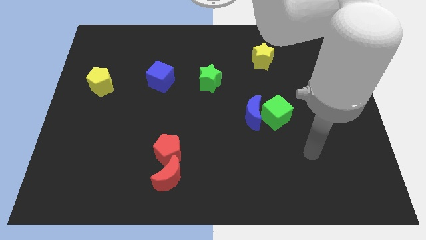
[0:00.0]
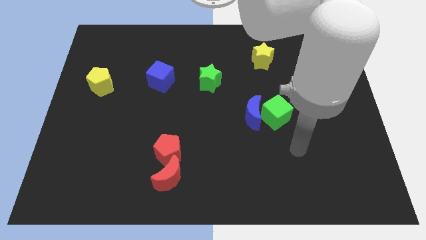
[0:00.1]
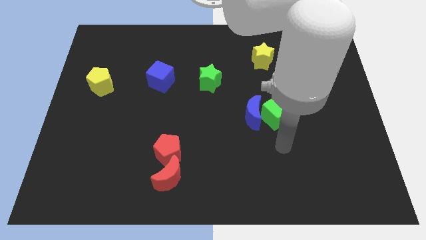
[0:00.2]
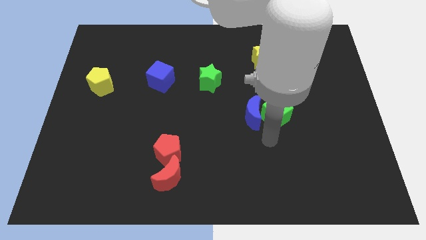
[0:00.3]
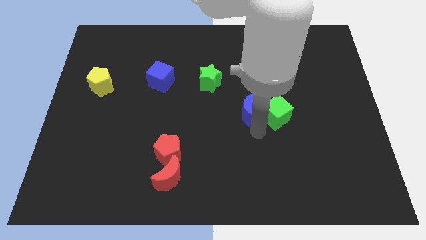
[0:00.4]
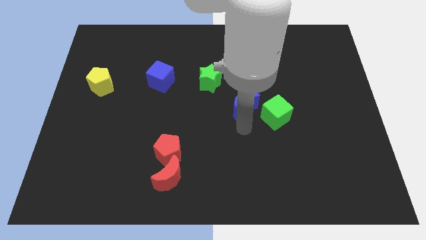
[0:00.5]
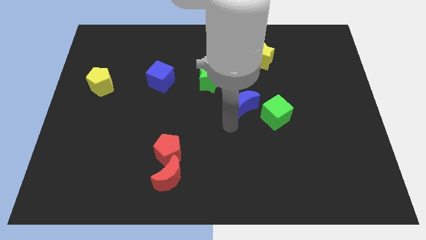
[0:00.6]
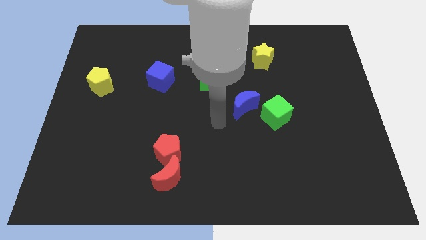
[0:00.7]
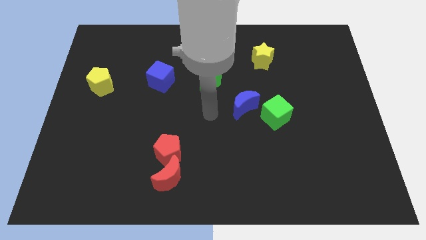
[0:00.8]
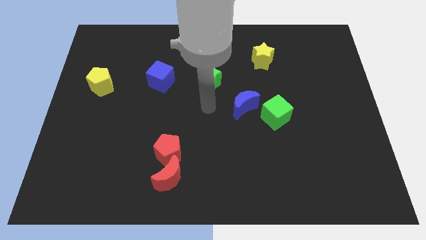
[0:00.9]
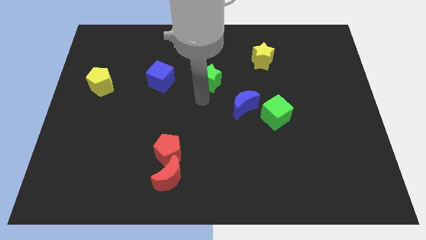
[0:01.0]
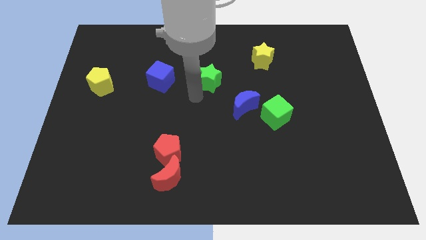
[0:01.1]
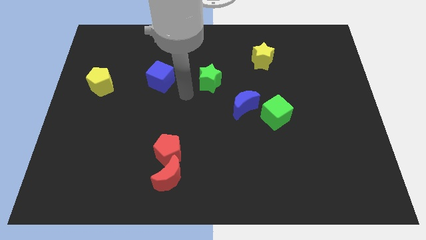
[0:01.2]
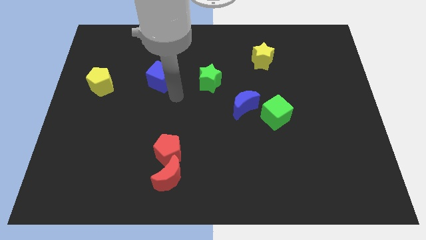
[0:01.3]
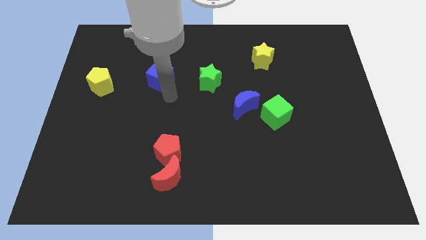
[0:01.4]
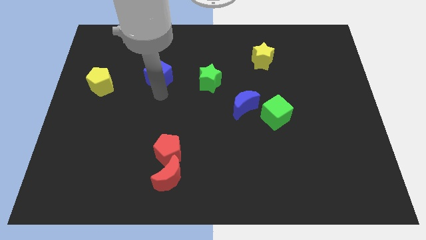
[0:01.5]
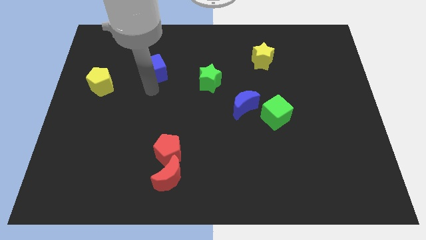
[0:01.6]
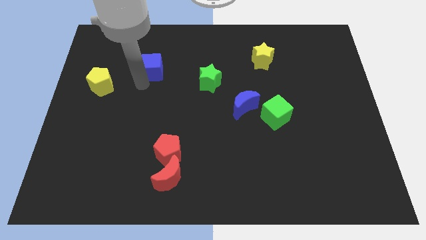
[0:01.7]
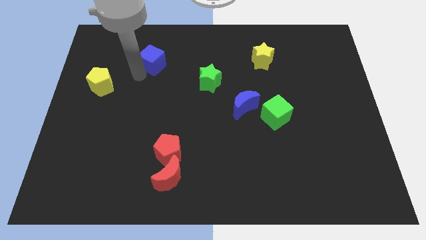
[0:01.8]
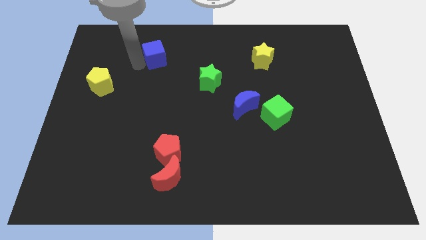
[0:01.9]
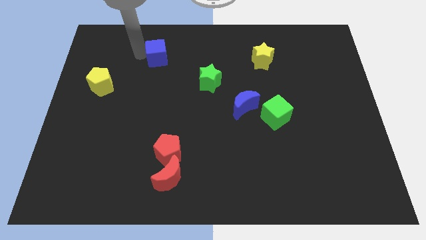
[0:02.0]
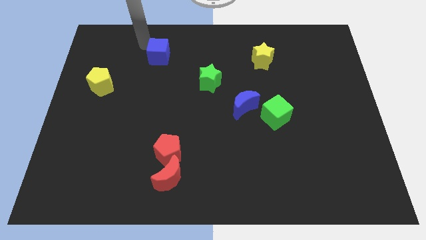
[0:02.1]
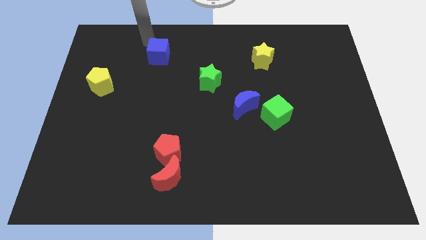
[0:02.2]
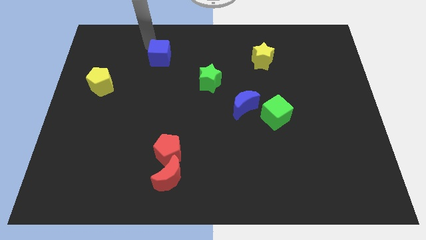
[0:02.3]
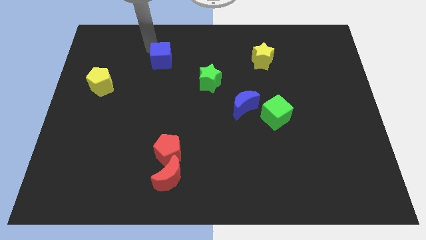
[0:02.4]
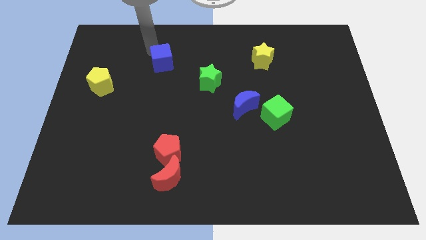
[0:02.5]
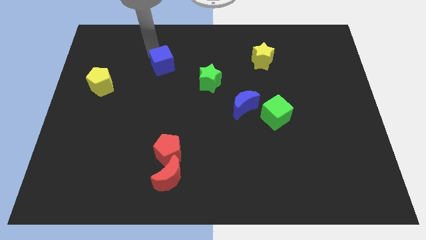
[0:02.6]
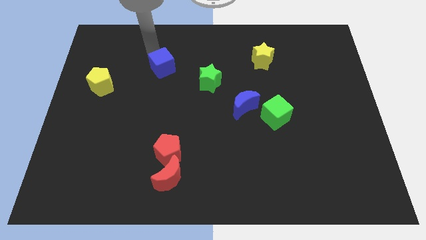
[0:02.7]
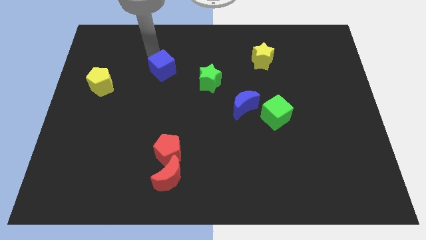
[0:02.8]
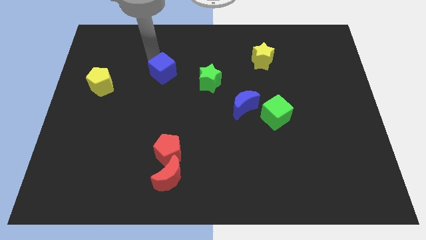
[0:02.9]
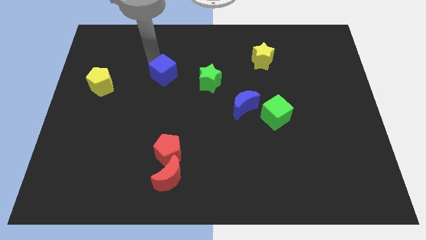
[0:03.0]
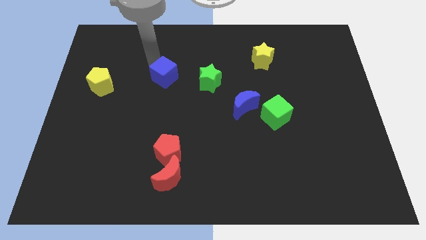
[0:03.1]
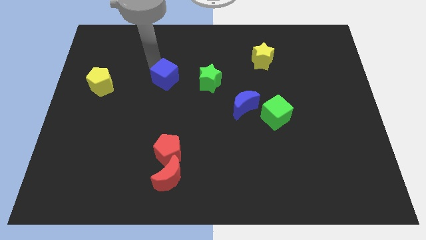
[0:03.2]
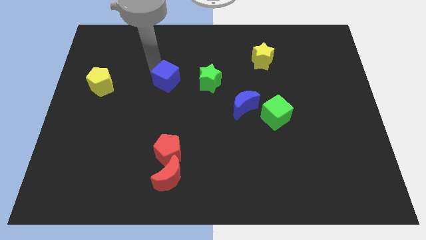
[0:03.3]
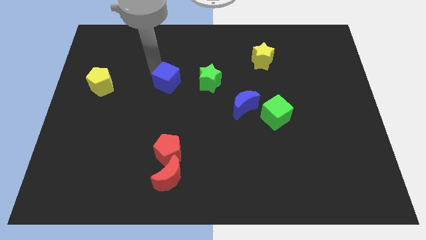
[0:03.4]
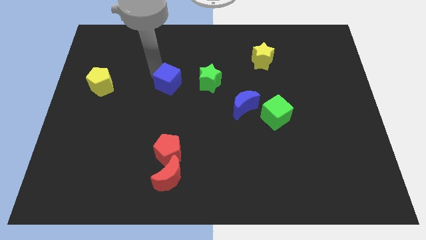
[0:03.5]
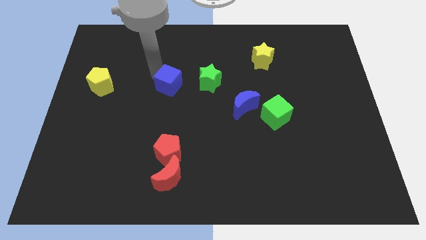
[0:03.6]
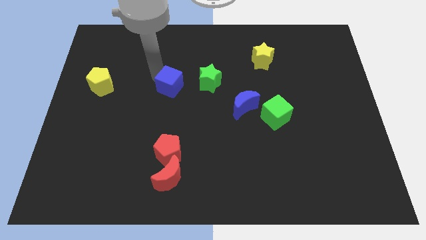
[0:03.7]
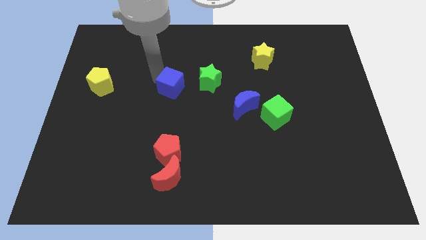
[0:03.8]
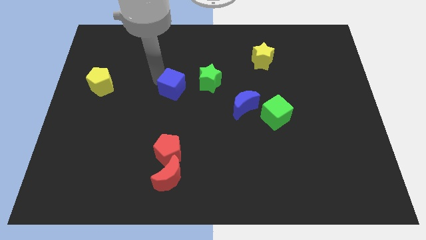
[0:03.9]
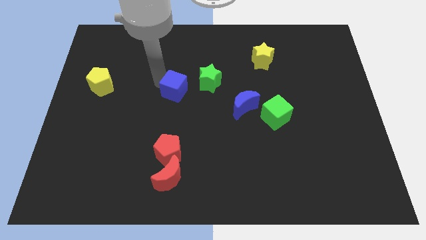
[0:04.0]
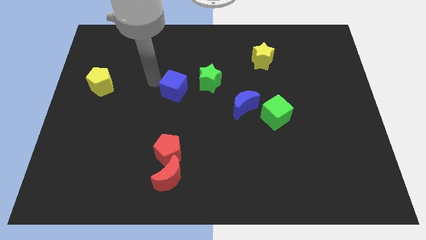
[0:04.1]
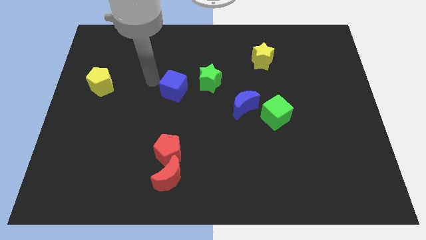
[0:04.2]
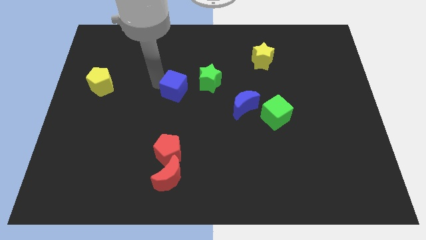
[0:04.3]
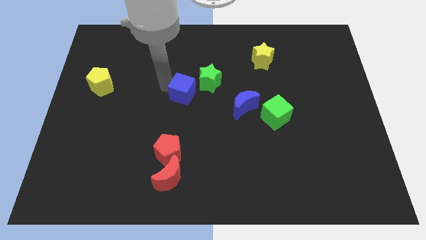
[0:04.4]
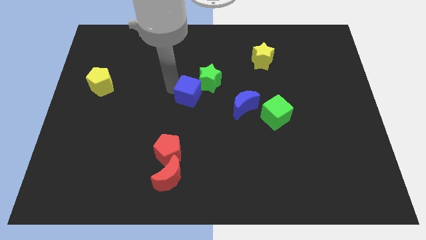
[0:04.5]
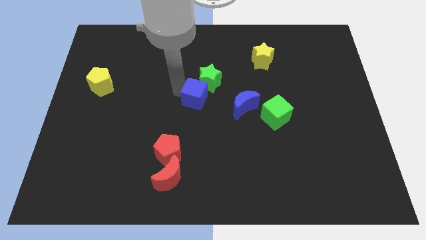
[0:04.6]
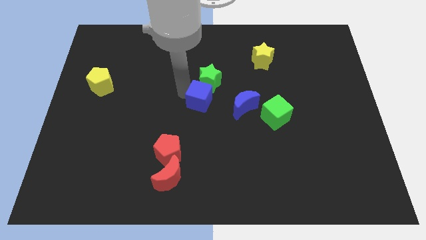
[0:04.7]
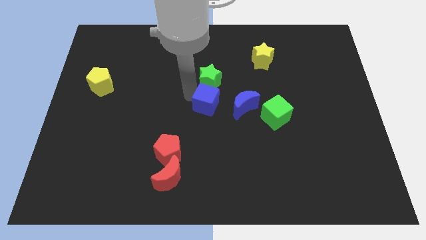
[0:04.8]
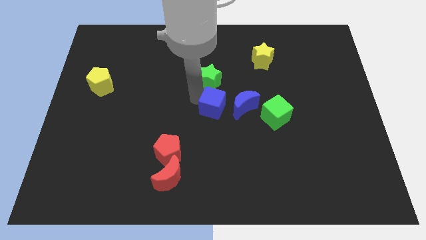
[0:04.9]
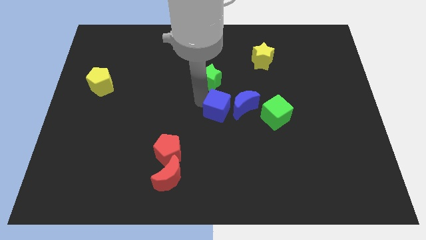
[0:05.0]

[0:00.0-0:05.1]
put the blue cube close to the blue moon

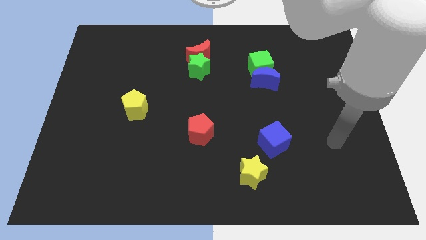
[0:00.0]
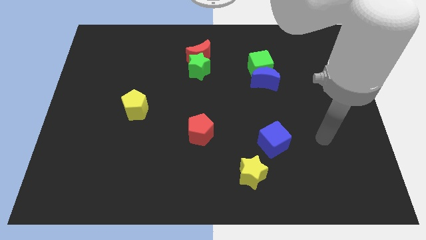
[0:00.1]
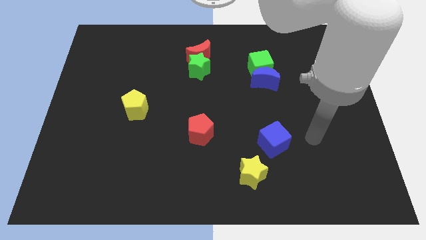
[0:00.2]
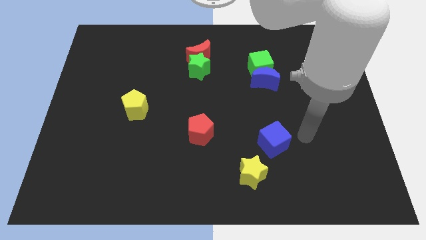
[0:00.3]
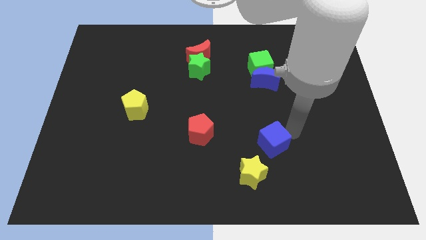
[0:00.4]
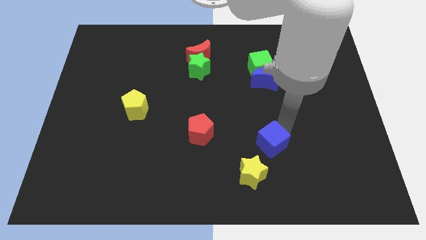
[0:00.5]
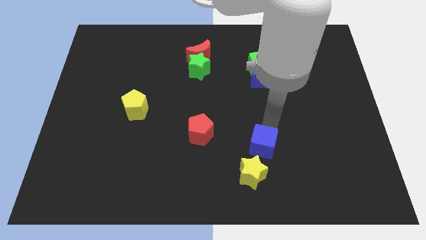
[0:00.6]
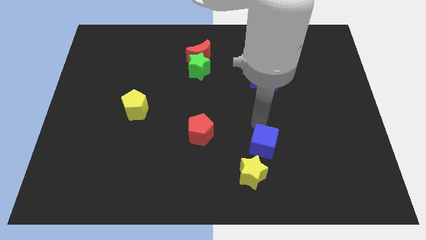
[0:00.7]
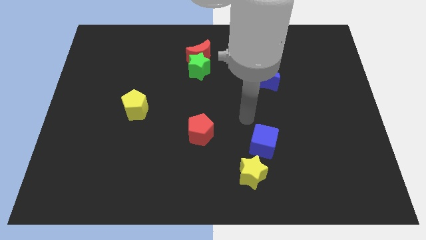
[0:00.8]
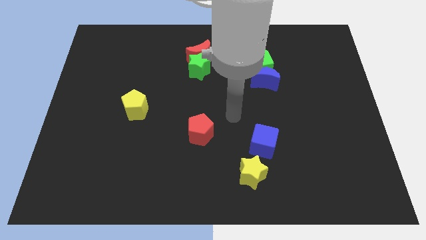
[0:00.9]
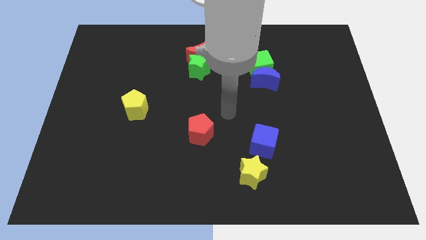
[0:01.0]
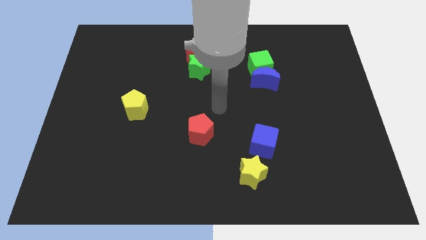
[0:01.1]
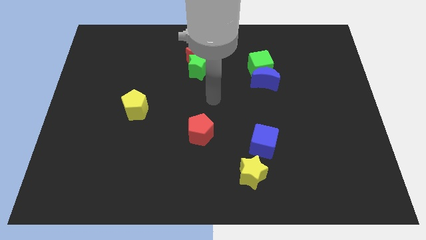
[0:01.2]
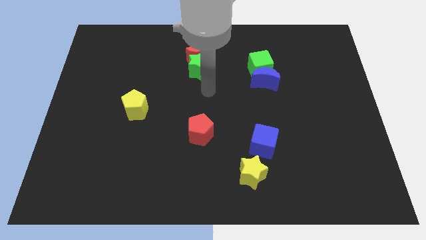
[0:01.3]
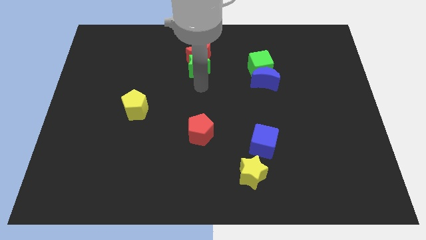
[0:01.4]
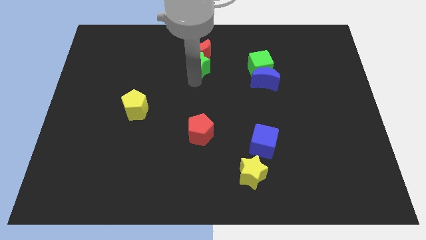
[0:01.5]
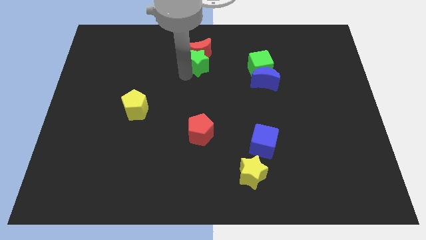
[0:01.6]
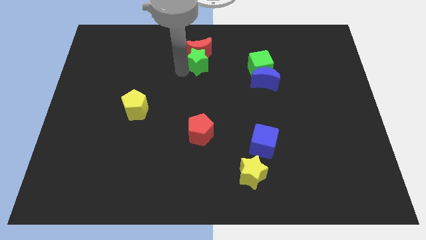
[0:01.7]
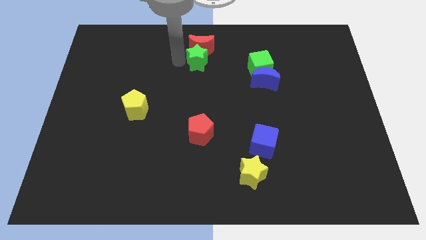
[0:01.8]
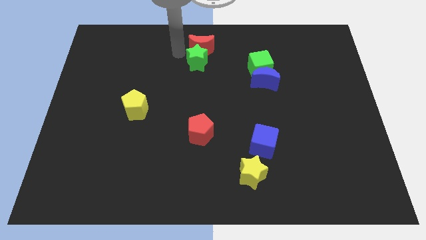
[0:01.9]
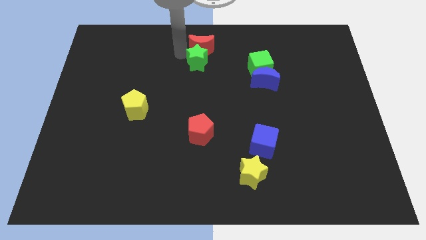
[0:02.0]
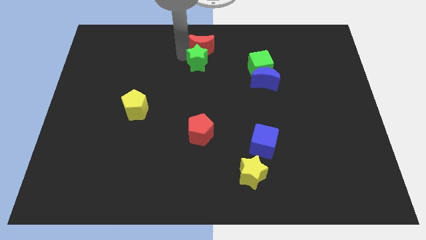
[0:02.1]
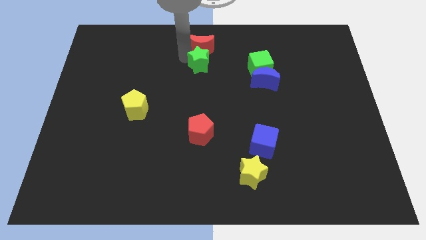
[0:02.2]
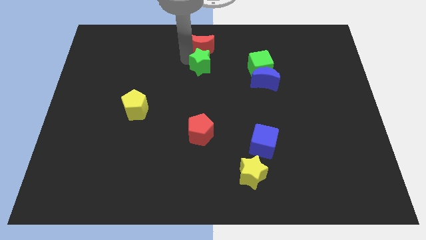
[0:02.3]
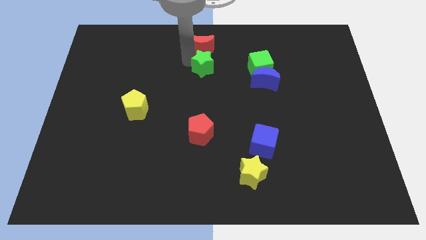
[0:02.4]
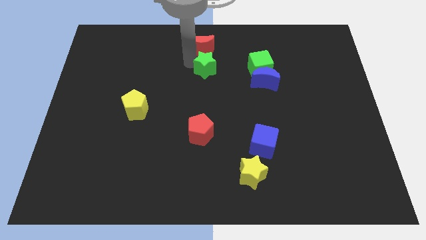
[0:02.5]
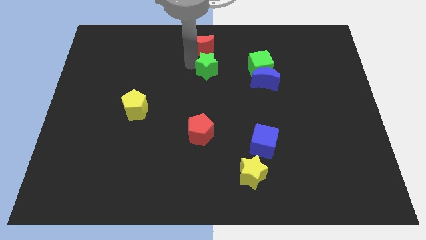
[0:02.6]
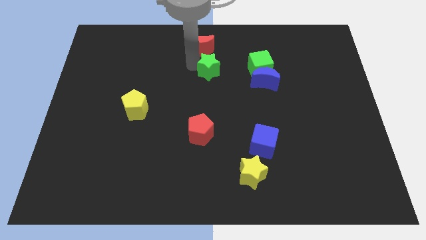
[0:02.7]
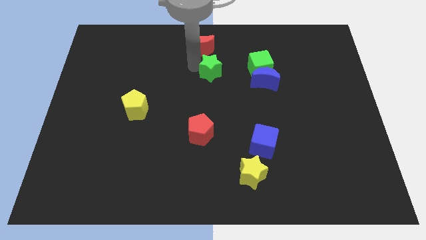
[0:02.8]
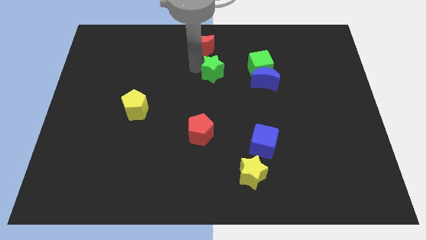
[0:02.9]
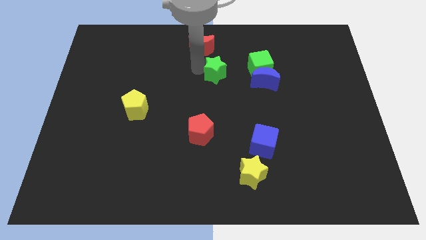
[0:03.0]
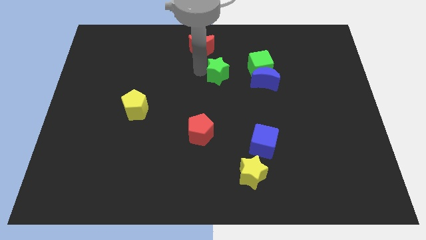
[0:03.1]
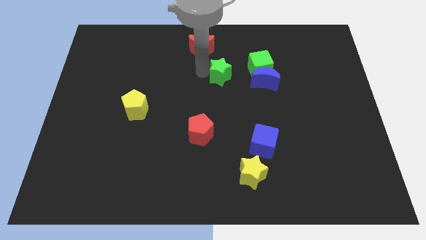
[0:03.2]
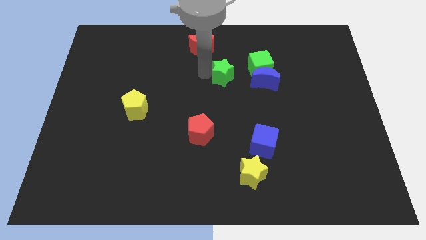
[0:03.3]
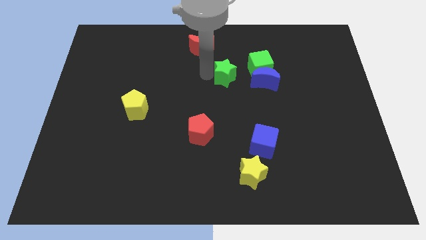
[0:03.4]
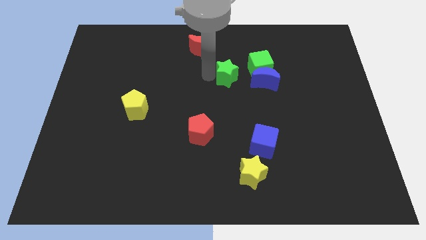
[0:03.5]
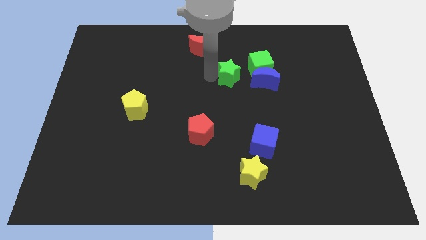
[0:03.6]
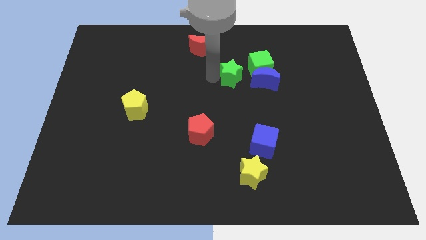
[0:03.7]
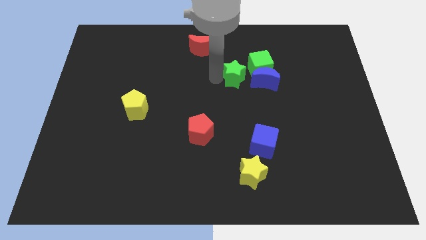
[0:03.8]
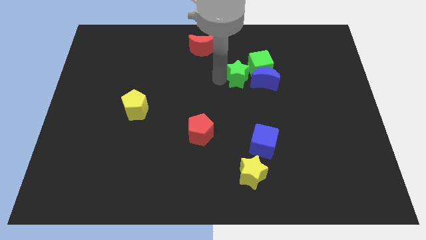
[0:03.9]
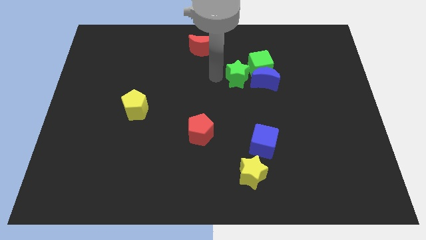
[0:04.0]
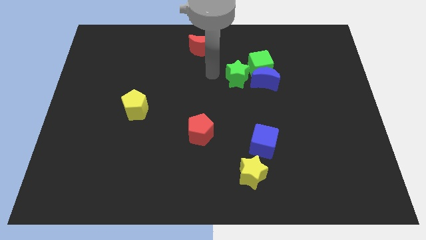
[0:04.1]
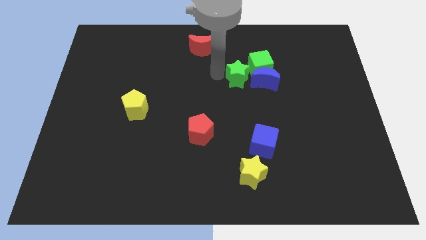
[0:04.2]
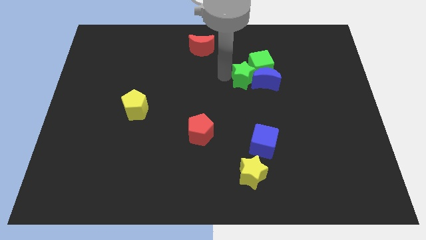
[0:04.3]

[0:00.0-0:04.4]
put the green star close to the blue moon
